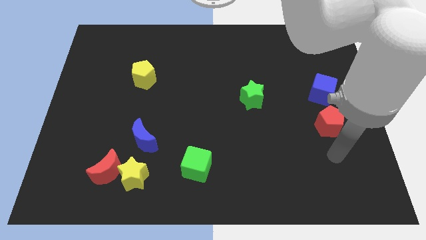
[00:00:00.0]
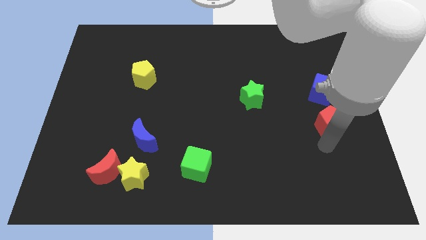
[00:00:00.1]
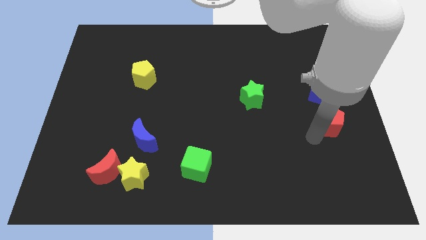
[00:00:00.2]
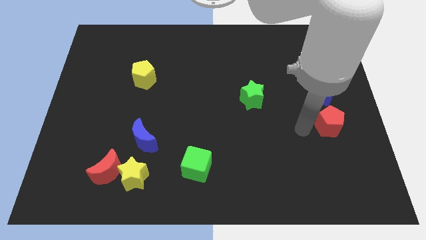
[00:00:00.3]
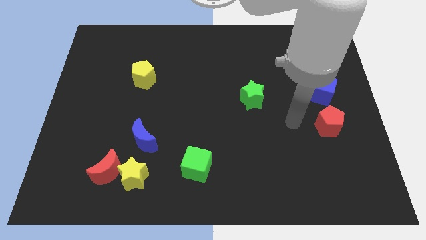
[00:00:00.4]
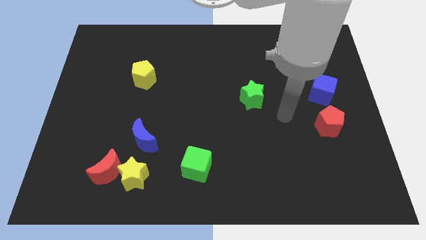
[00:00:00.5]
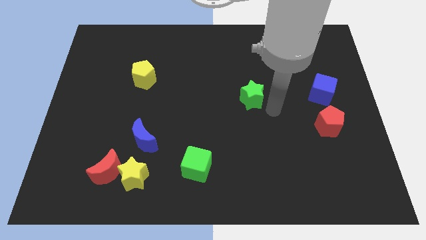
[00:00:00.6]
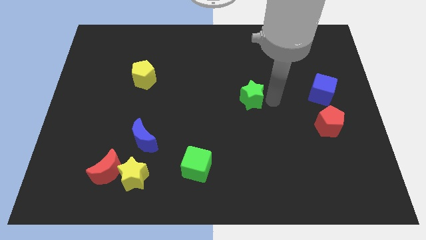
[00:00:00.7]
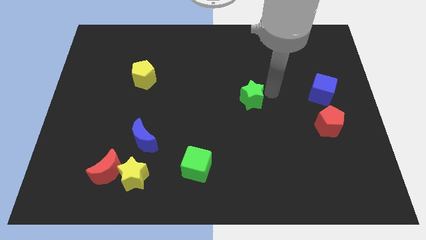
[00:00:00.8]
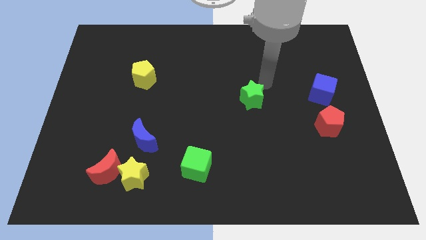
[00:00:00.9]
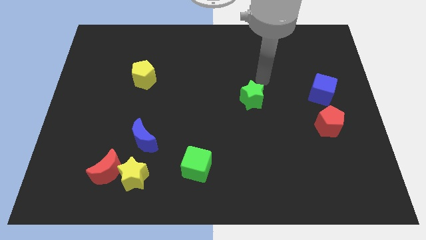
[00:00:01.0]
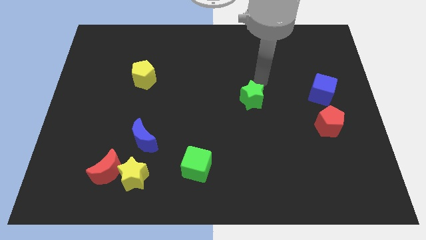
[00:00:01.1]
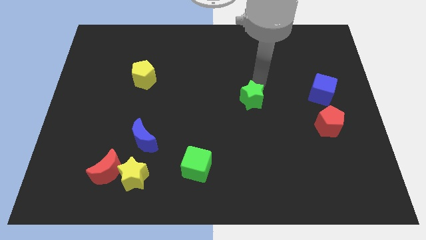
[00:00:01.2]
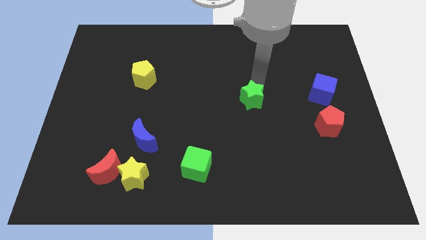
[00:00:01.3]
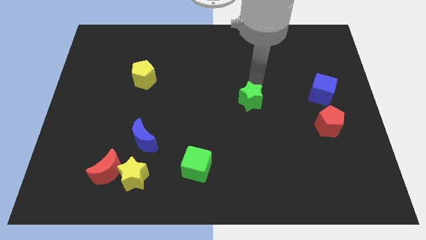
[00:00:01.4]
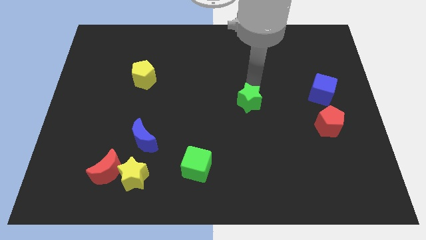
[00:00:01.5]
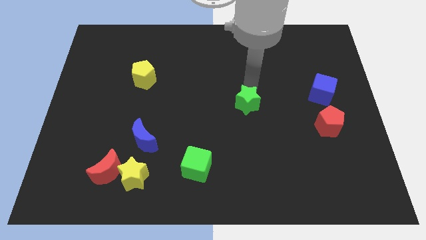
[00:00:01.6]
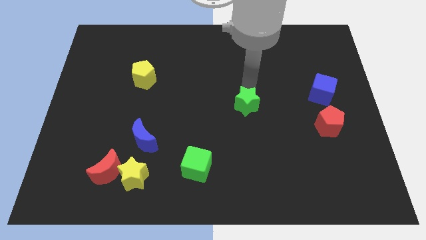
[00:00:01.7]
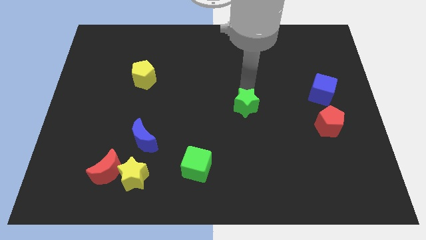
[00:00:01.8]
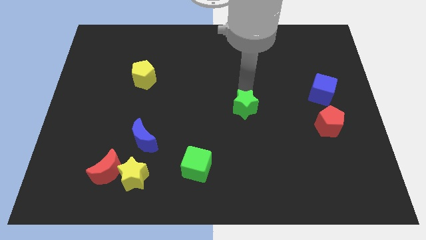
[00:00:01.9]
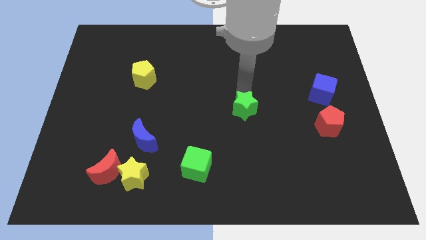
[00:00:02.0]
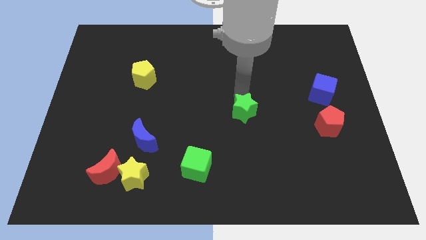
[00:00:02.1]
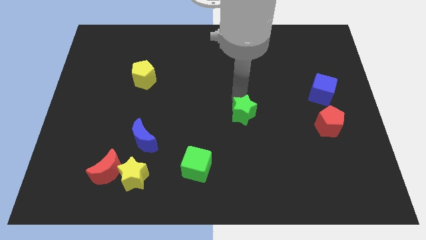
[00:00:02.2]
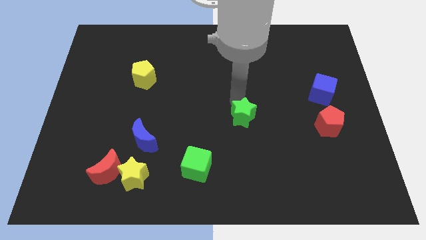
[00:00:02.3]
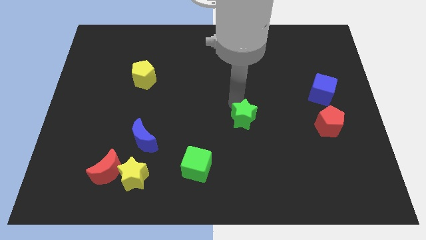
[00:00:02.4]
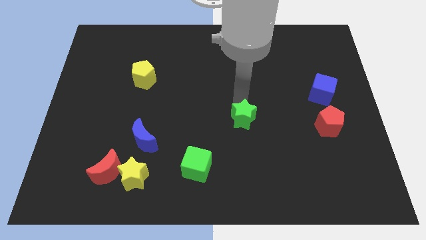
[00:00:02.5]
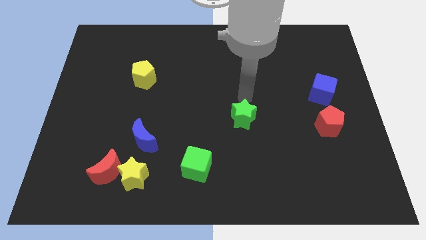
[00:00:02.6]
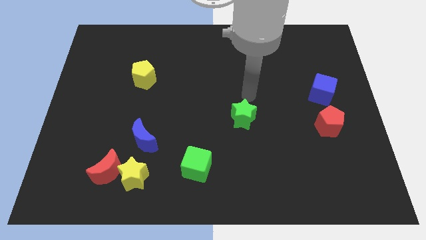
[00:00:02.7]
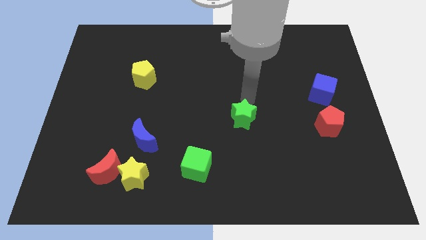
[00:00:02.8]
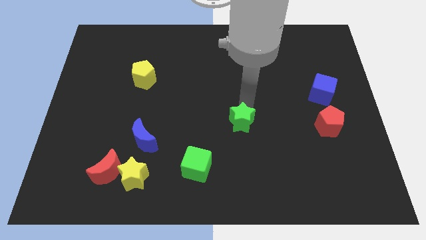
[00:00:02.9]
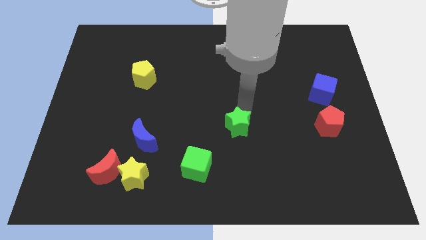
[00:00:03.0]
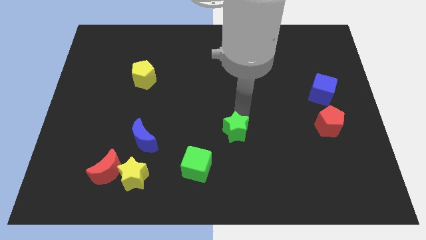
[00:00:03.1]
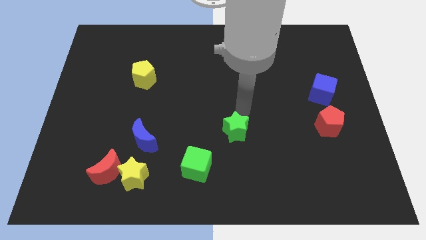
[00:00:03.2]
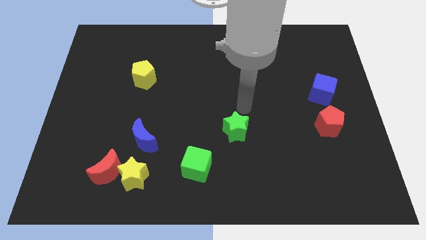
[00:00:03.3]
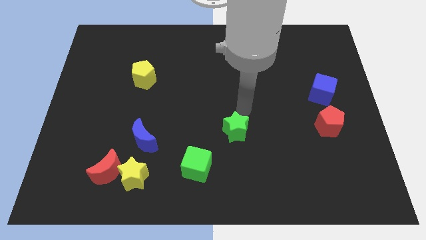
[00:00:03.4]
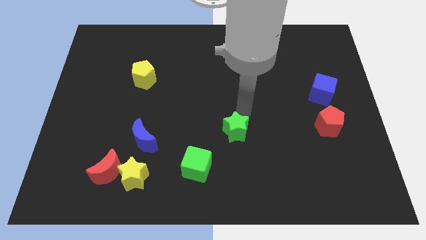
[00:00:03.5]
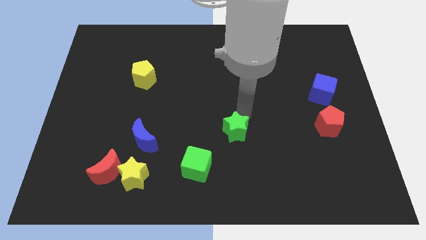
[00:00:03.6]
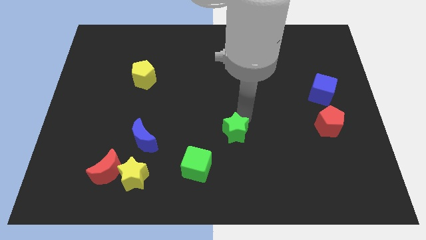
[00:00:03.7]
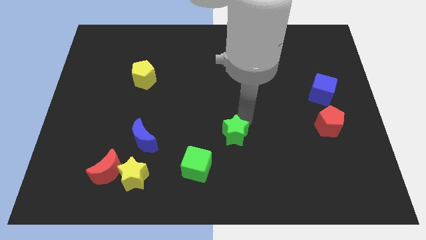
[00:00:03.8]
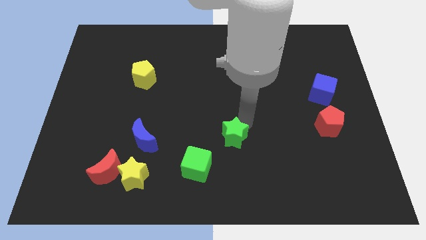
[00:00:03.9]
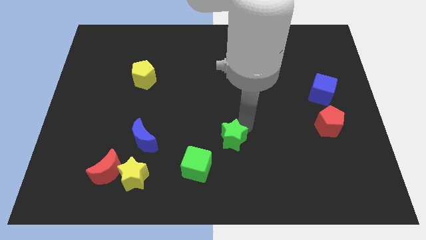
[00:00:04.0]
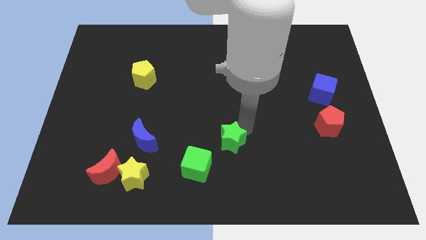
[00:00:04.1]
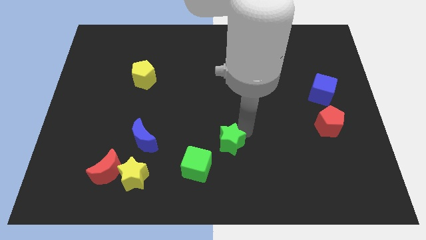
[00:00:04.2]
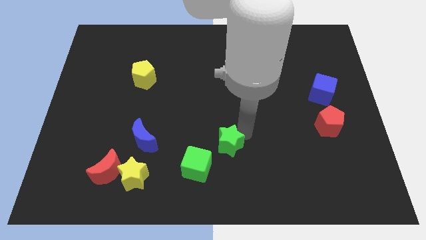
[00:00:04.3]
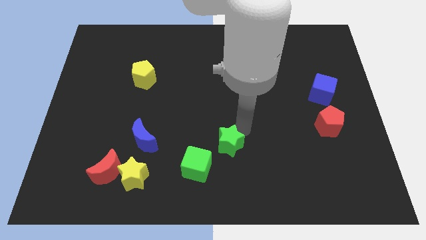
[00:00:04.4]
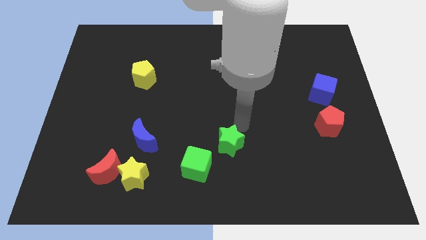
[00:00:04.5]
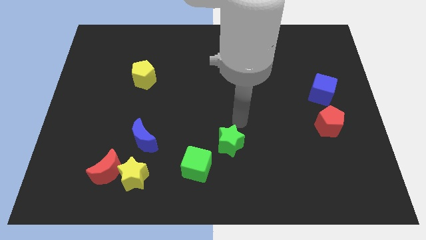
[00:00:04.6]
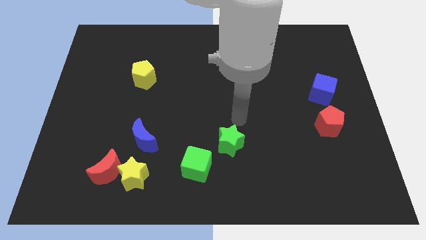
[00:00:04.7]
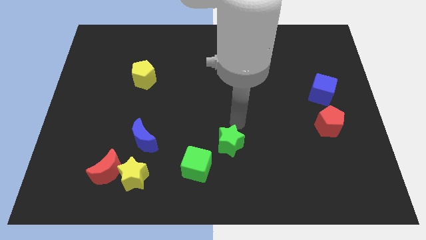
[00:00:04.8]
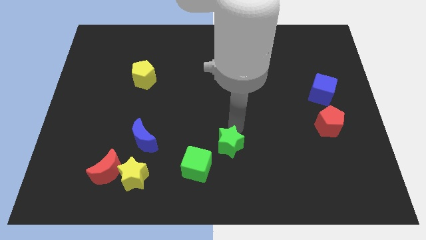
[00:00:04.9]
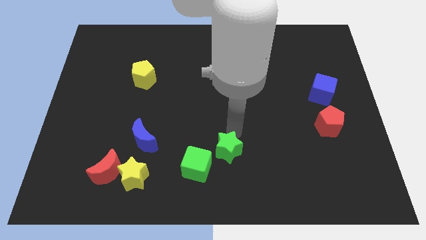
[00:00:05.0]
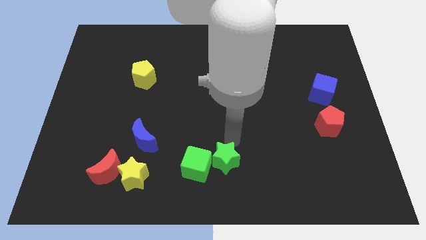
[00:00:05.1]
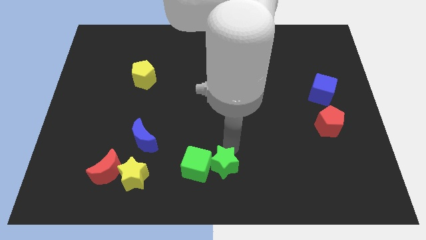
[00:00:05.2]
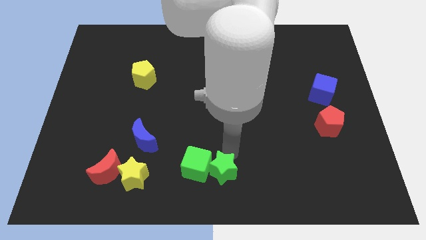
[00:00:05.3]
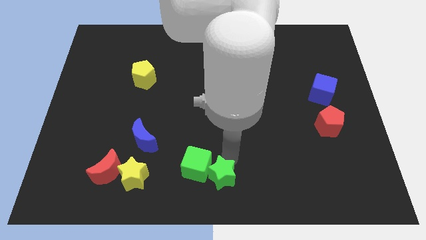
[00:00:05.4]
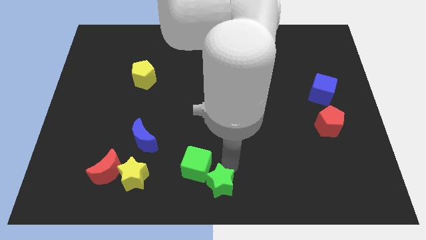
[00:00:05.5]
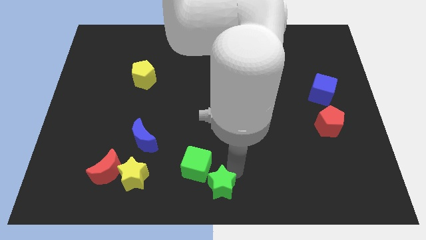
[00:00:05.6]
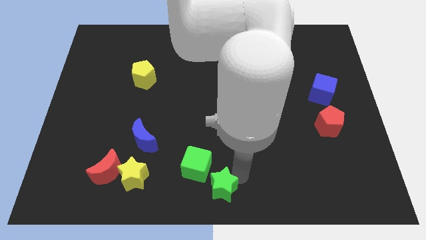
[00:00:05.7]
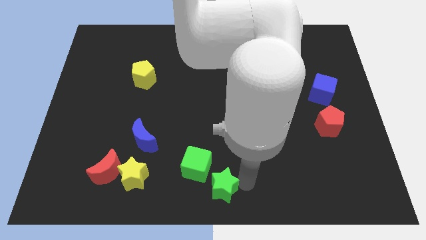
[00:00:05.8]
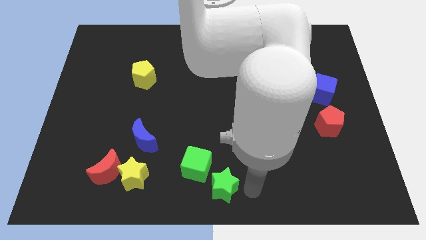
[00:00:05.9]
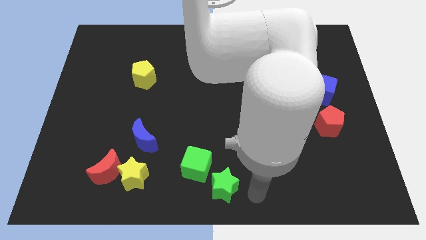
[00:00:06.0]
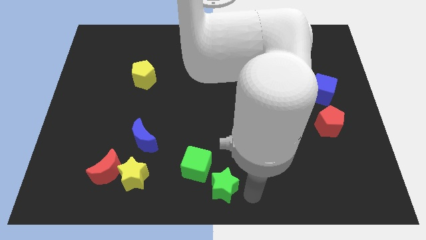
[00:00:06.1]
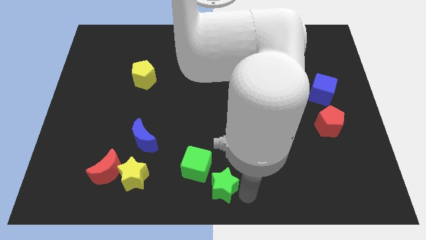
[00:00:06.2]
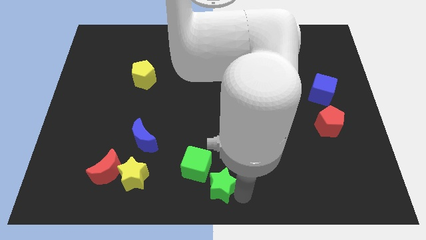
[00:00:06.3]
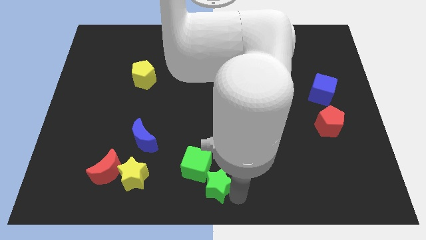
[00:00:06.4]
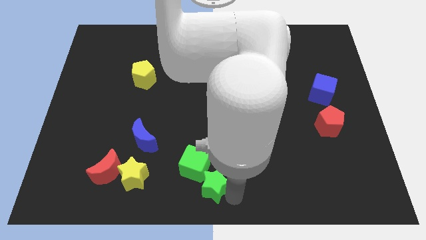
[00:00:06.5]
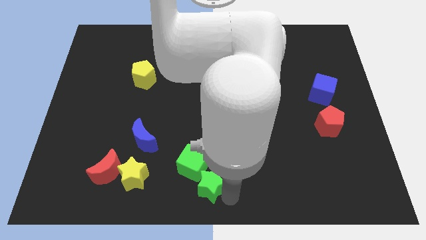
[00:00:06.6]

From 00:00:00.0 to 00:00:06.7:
push the green star just right of the yellow star

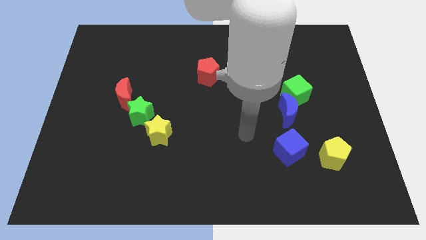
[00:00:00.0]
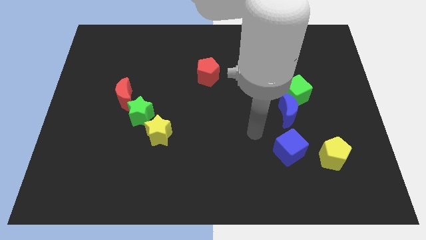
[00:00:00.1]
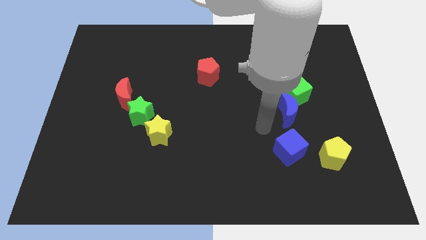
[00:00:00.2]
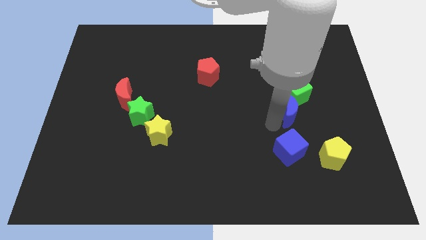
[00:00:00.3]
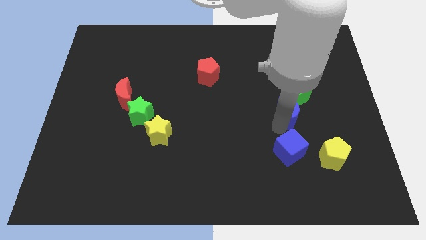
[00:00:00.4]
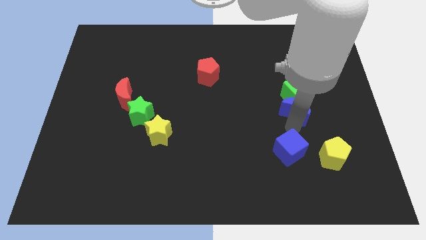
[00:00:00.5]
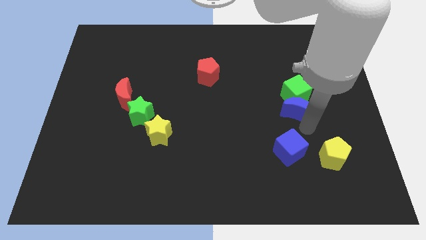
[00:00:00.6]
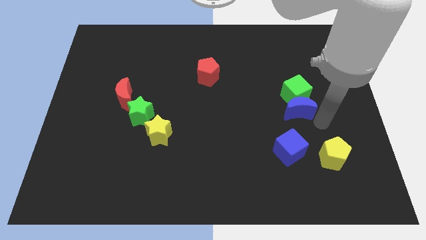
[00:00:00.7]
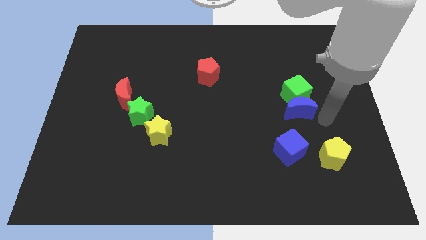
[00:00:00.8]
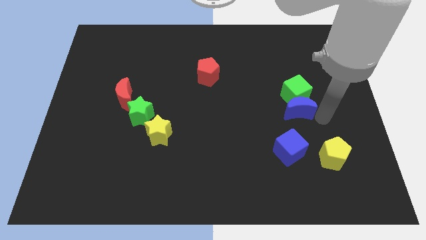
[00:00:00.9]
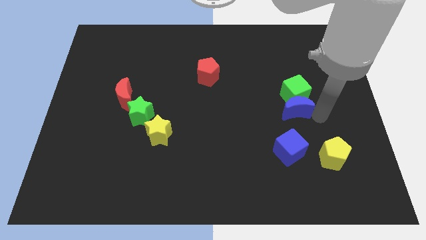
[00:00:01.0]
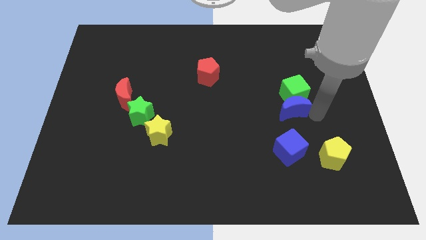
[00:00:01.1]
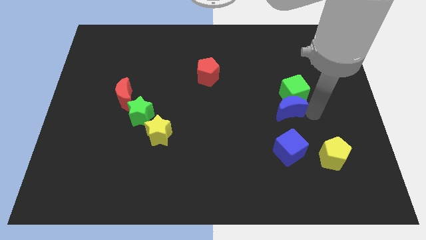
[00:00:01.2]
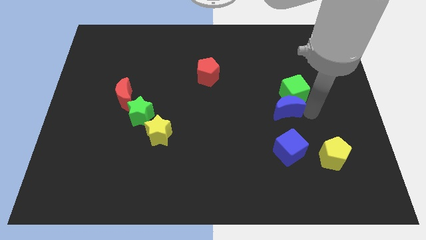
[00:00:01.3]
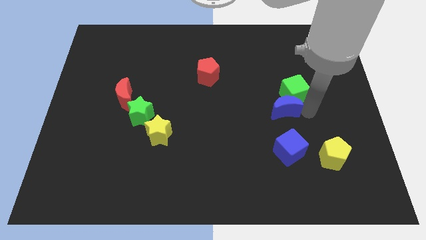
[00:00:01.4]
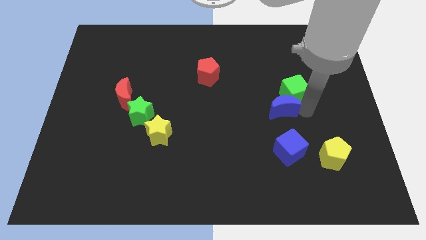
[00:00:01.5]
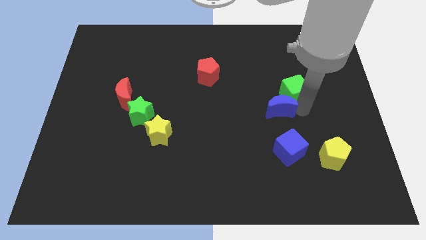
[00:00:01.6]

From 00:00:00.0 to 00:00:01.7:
move the blue moon just left of the green cube
